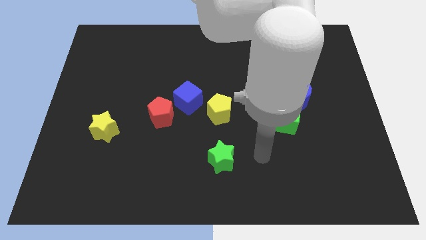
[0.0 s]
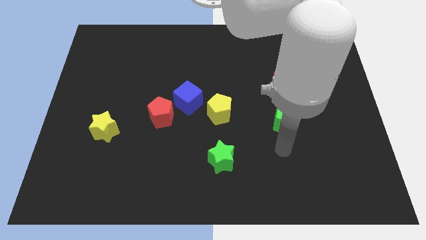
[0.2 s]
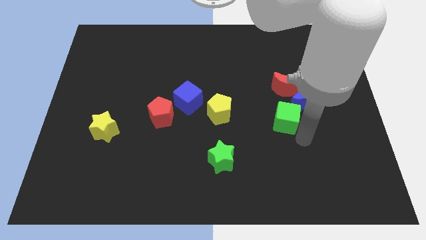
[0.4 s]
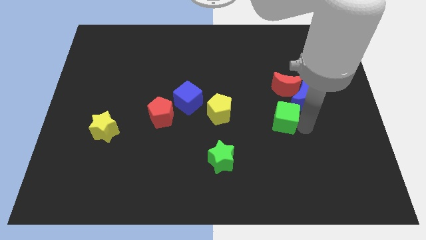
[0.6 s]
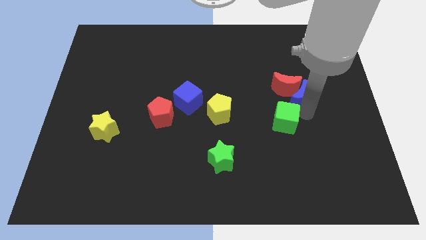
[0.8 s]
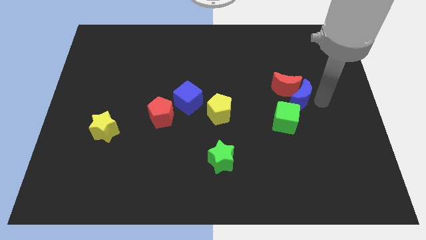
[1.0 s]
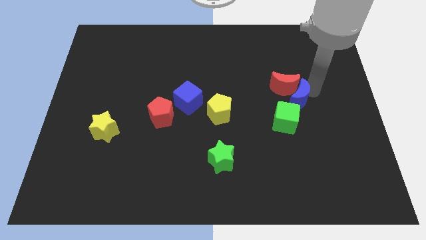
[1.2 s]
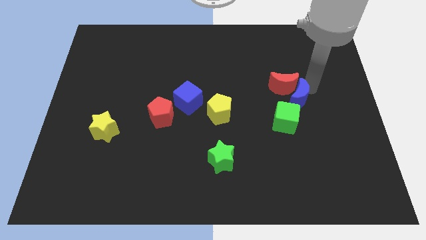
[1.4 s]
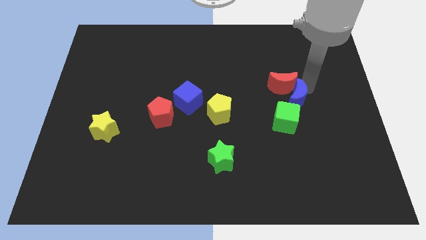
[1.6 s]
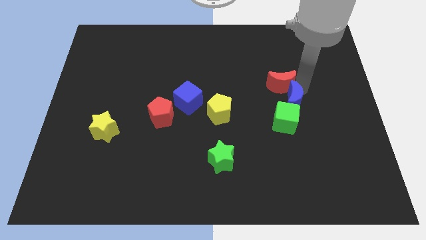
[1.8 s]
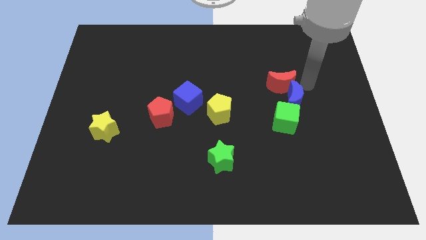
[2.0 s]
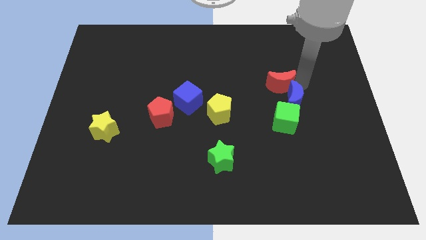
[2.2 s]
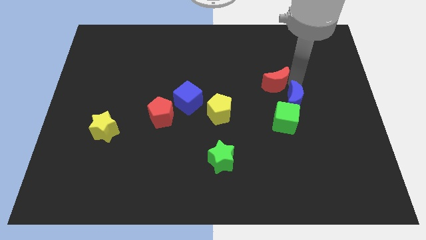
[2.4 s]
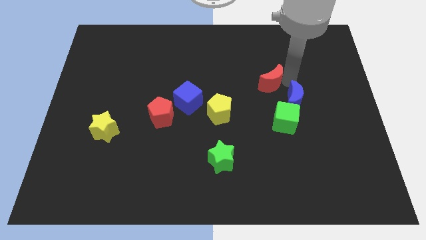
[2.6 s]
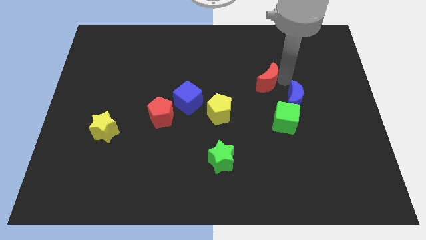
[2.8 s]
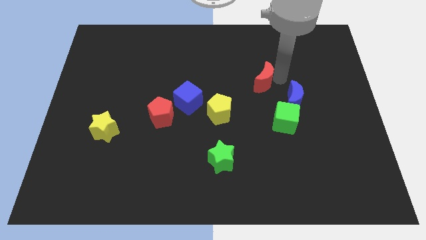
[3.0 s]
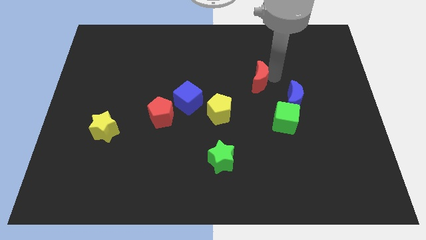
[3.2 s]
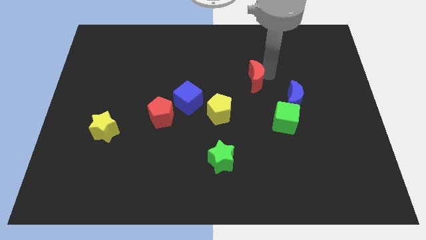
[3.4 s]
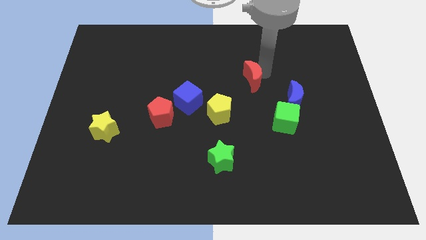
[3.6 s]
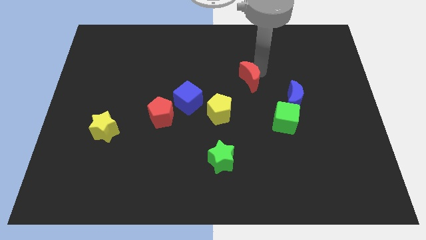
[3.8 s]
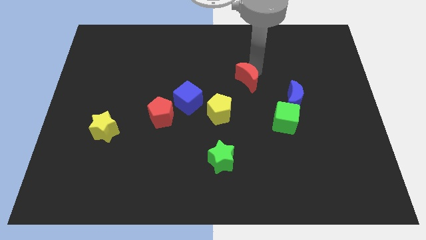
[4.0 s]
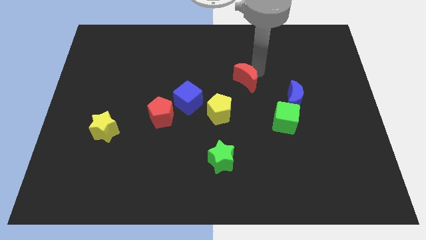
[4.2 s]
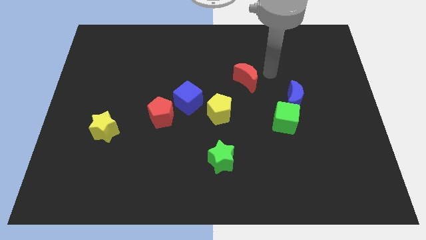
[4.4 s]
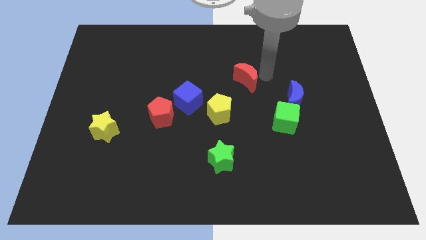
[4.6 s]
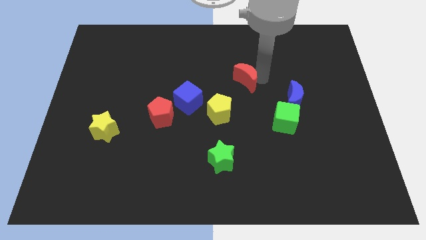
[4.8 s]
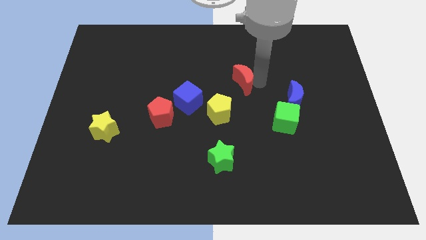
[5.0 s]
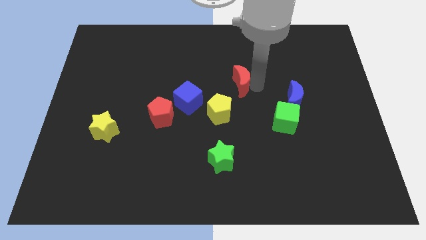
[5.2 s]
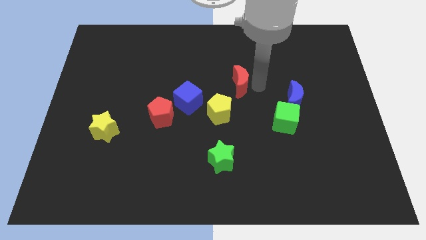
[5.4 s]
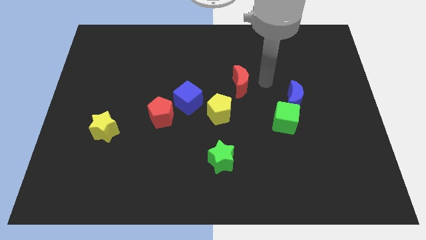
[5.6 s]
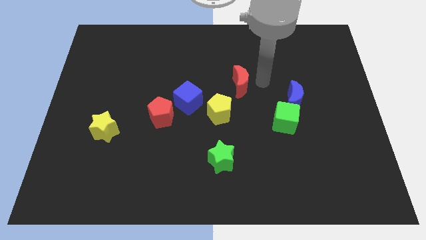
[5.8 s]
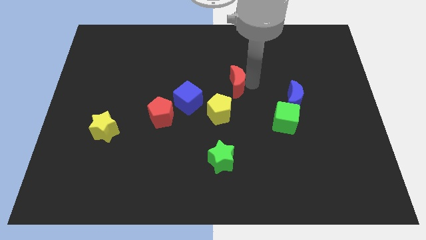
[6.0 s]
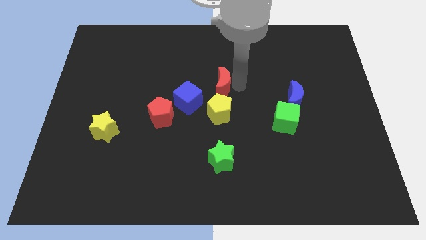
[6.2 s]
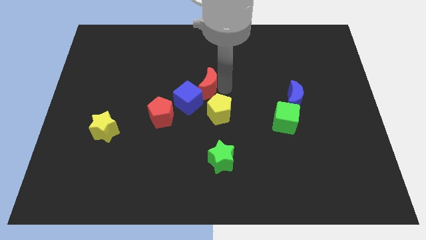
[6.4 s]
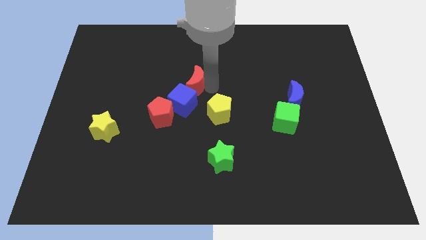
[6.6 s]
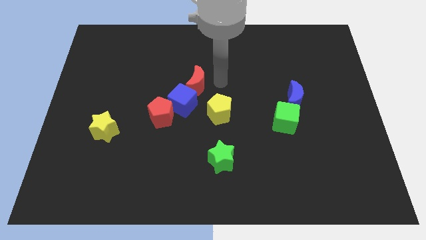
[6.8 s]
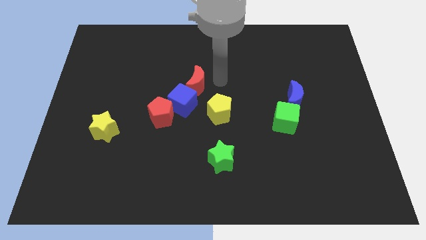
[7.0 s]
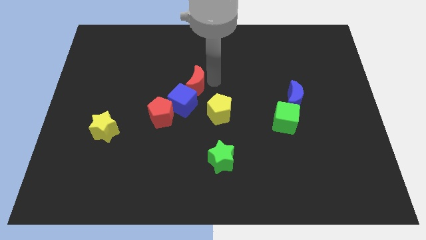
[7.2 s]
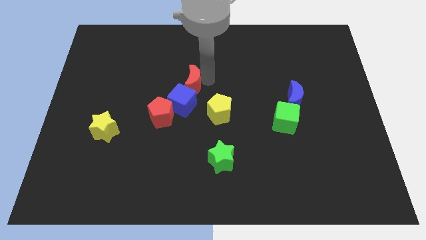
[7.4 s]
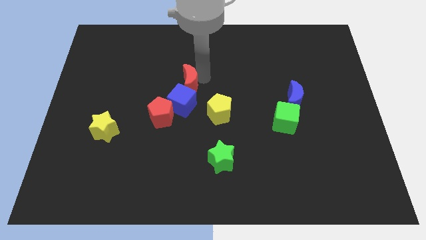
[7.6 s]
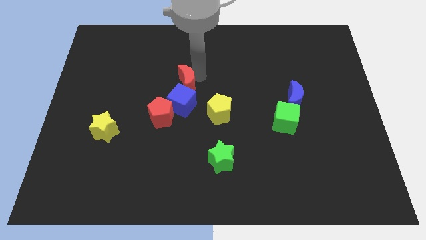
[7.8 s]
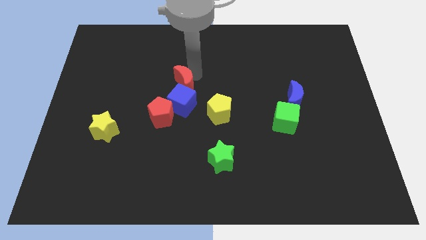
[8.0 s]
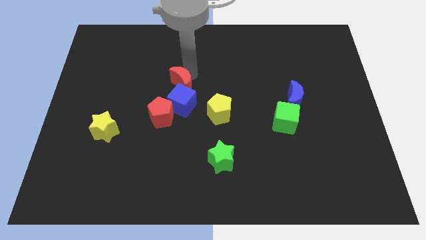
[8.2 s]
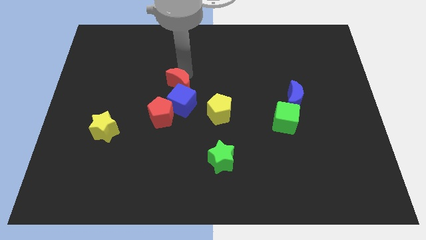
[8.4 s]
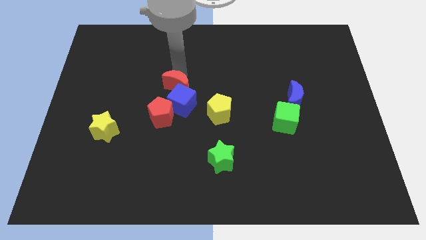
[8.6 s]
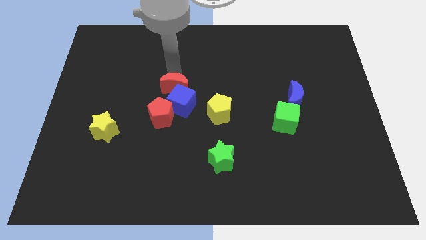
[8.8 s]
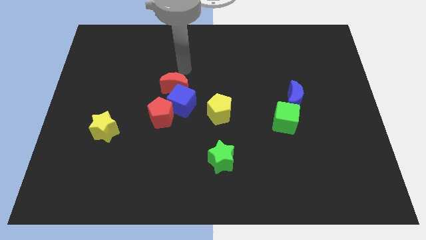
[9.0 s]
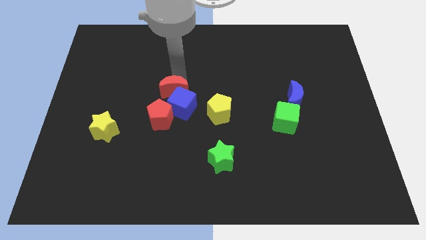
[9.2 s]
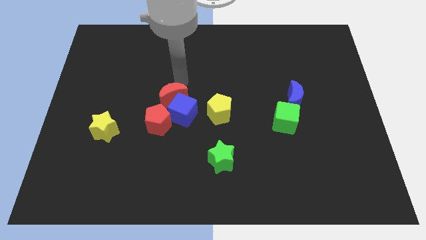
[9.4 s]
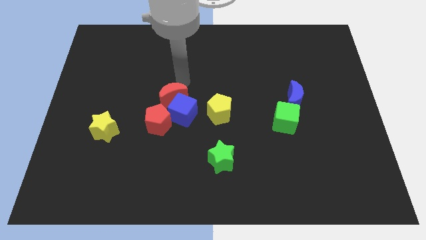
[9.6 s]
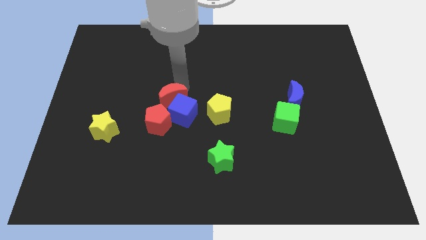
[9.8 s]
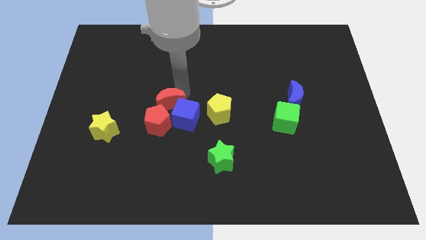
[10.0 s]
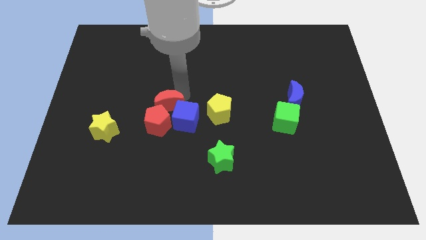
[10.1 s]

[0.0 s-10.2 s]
slide the red moon next to the red pentagon

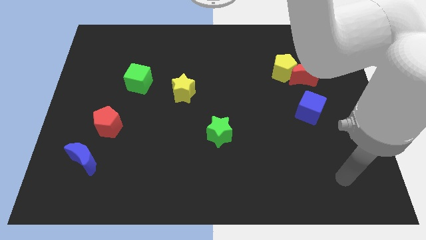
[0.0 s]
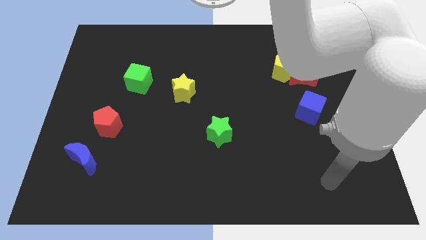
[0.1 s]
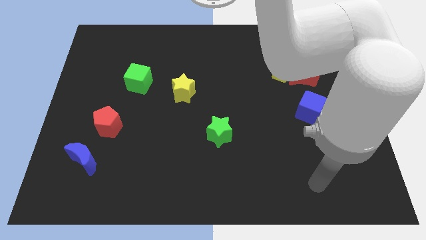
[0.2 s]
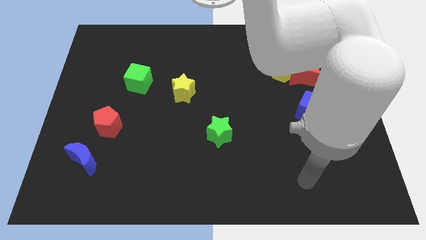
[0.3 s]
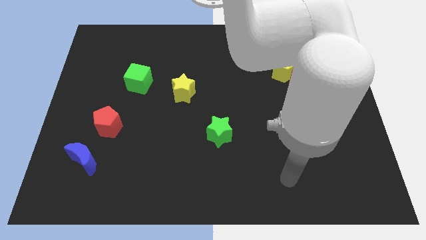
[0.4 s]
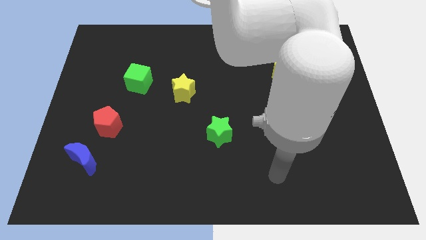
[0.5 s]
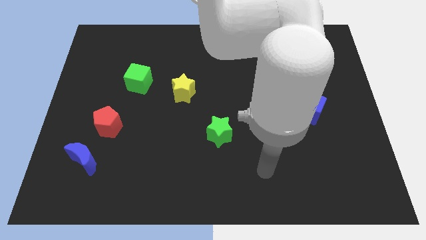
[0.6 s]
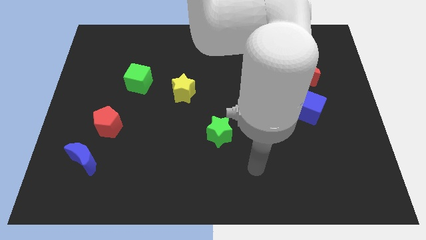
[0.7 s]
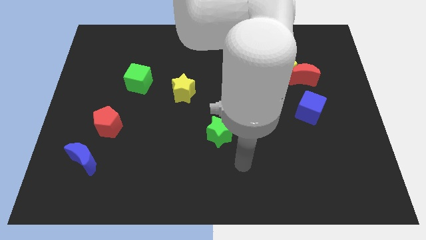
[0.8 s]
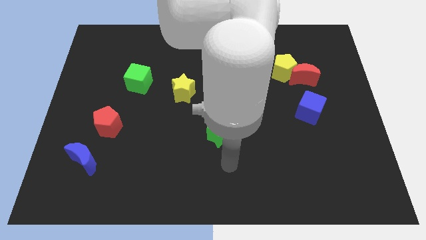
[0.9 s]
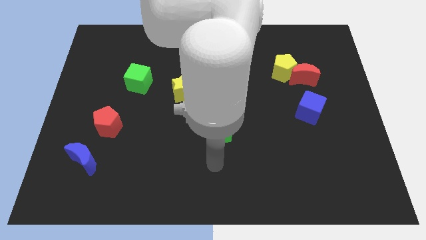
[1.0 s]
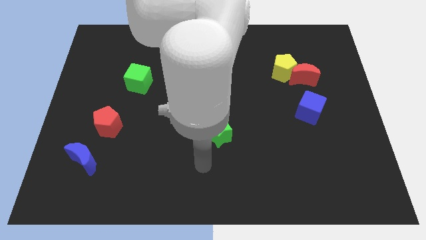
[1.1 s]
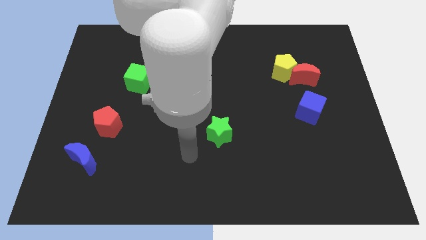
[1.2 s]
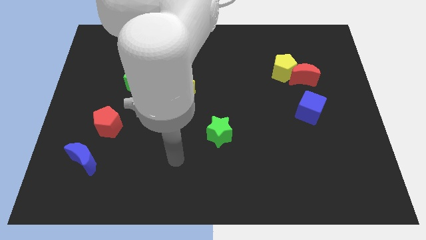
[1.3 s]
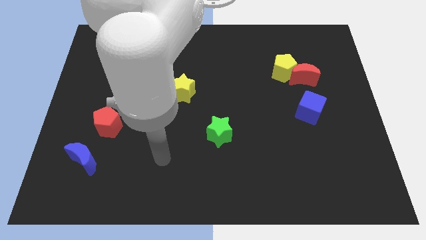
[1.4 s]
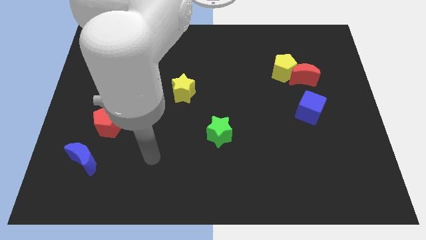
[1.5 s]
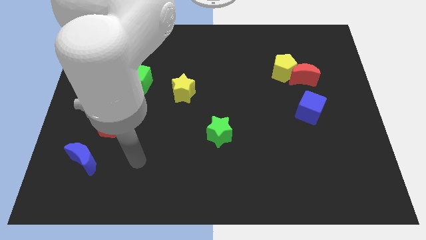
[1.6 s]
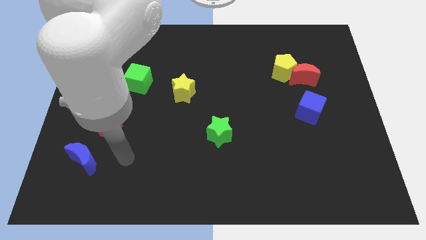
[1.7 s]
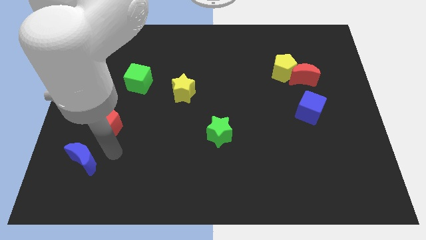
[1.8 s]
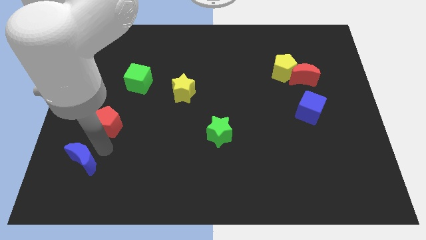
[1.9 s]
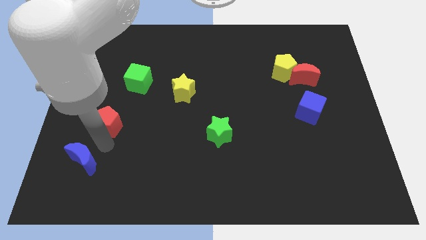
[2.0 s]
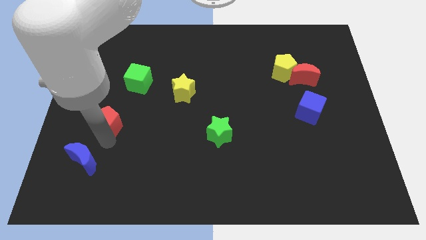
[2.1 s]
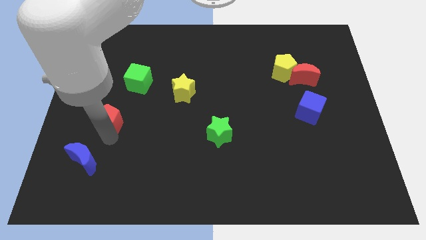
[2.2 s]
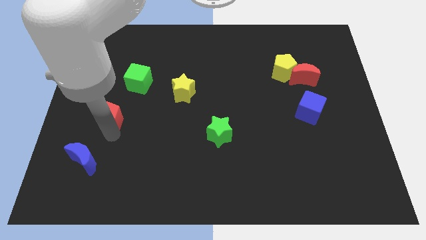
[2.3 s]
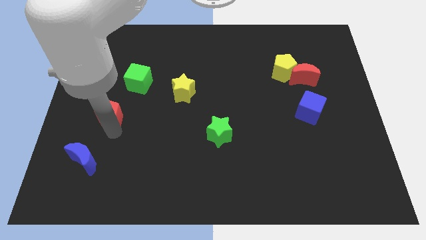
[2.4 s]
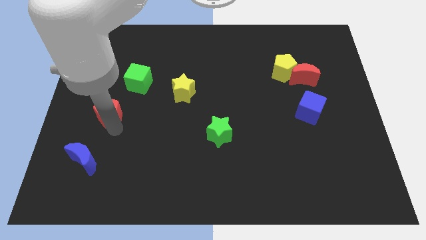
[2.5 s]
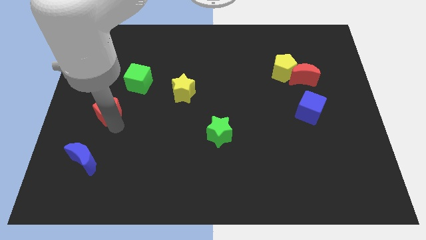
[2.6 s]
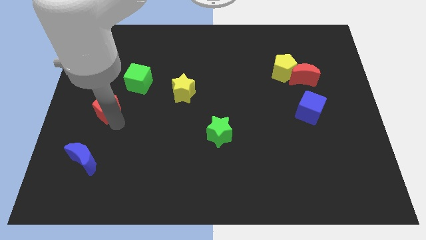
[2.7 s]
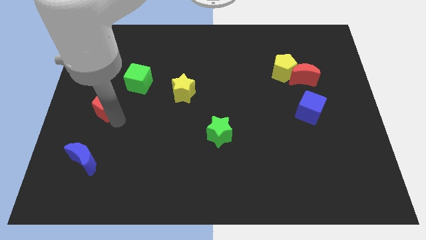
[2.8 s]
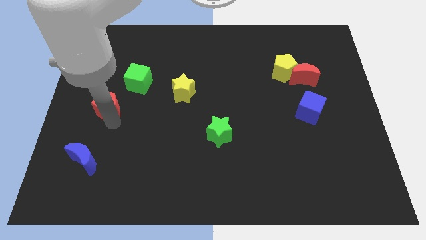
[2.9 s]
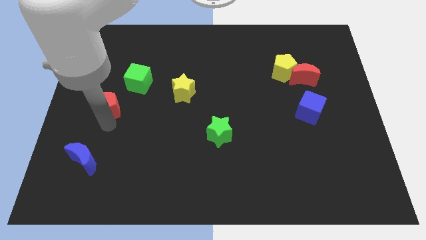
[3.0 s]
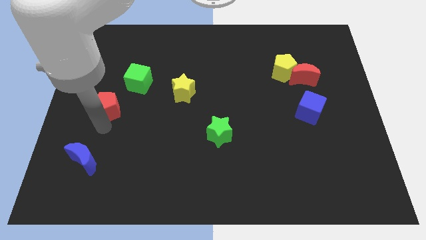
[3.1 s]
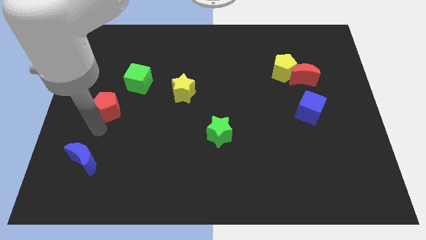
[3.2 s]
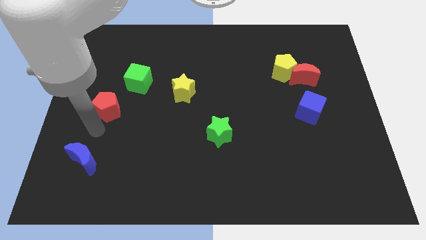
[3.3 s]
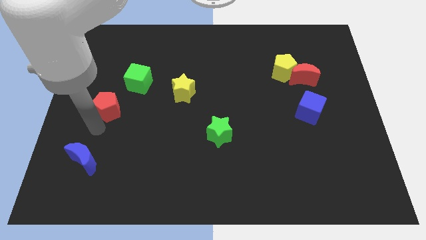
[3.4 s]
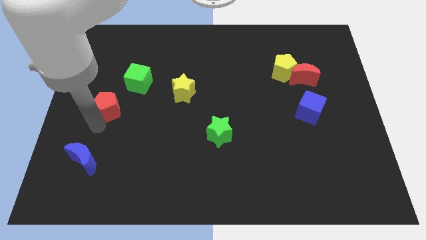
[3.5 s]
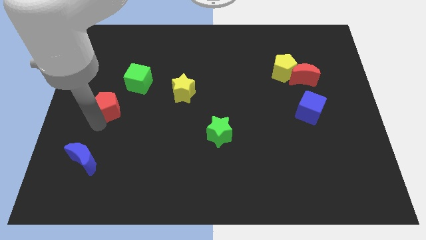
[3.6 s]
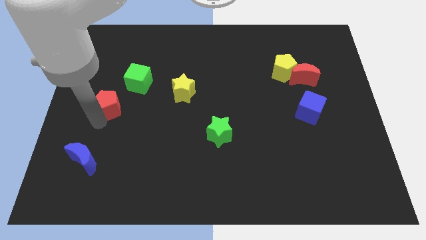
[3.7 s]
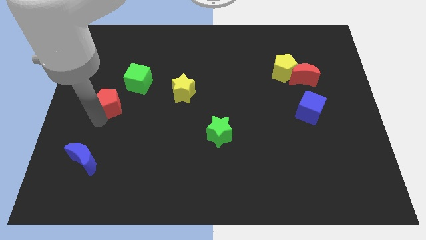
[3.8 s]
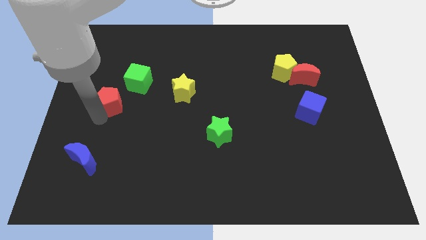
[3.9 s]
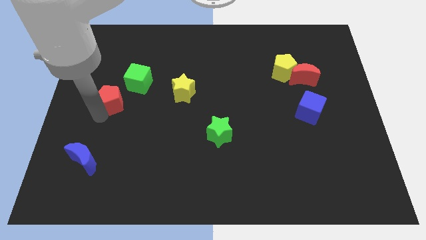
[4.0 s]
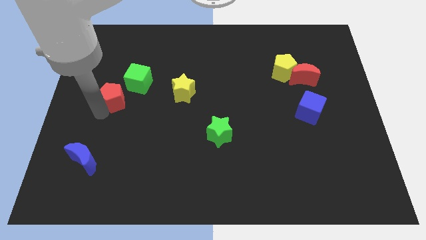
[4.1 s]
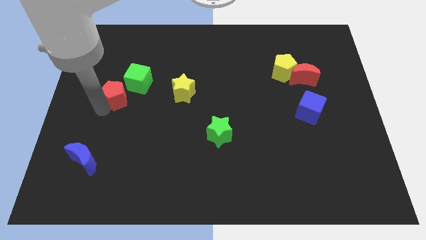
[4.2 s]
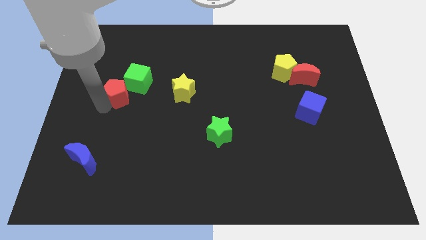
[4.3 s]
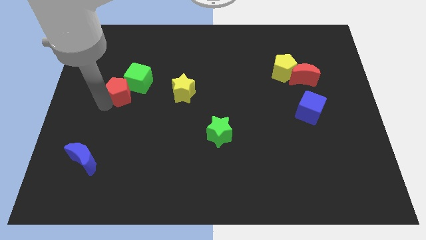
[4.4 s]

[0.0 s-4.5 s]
move the red pentagon close to the green cube
